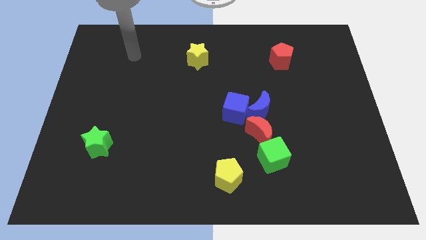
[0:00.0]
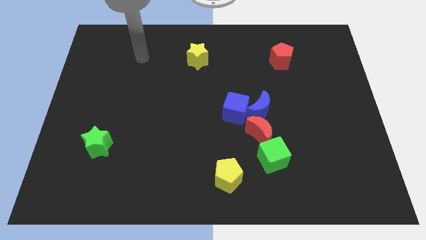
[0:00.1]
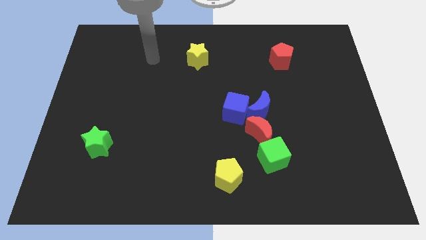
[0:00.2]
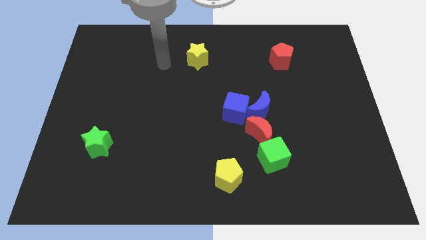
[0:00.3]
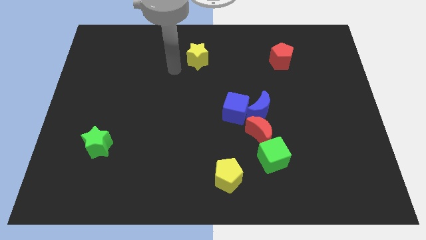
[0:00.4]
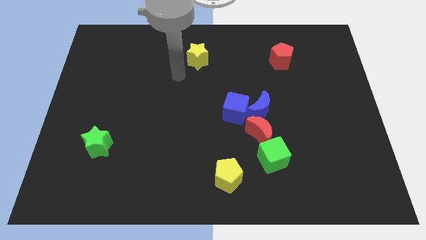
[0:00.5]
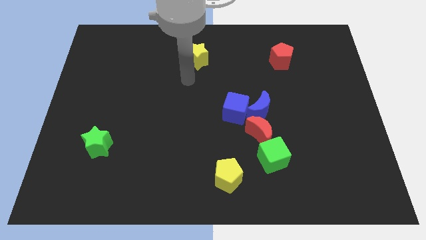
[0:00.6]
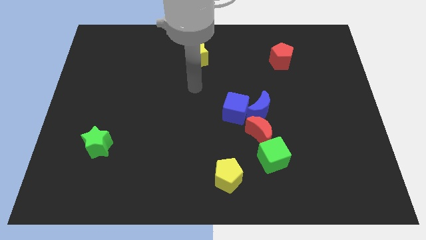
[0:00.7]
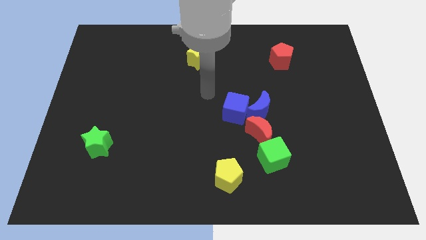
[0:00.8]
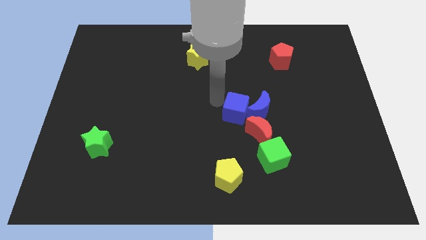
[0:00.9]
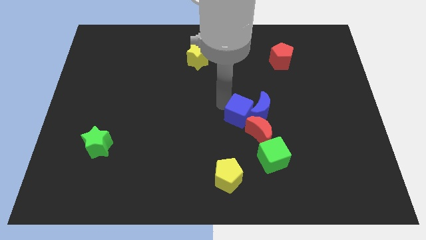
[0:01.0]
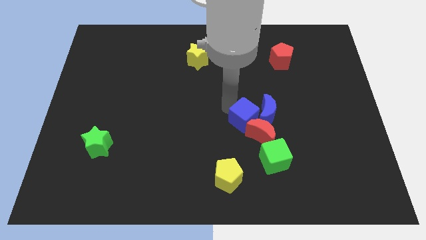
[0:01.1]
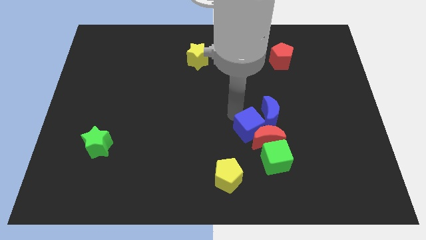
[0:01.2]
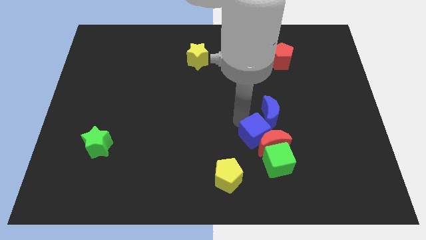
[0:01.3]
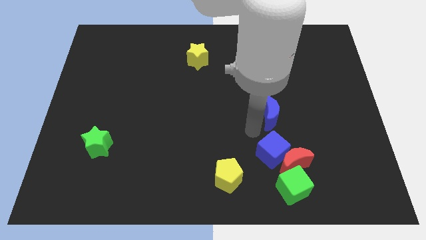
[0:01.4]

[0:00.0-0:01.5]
separate the blue moon from the blue cube and red moon

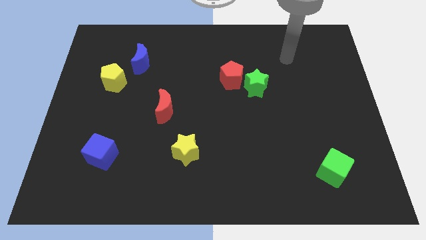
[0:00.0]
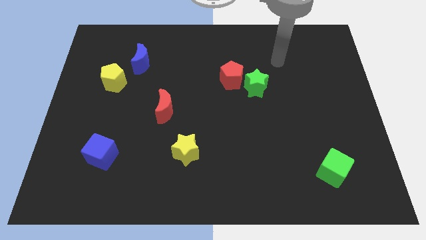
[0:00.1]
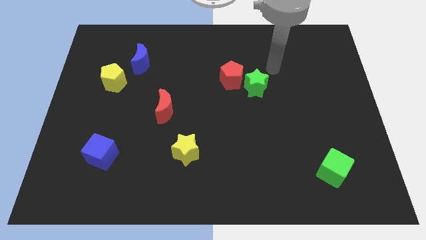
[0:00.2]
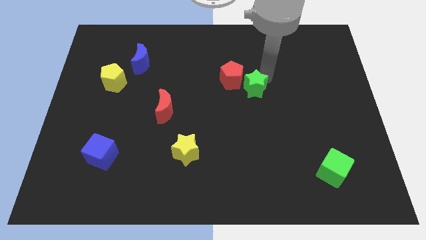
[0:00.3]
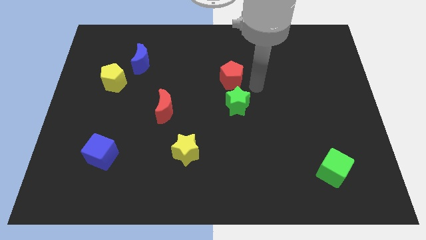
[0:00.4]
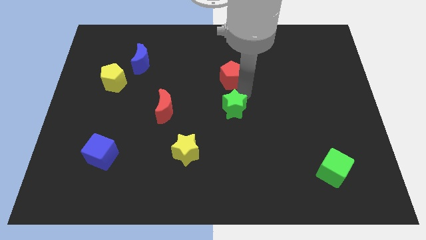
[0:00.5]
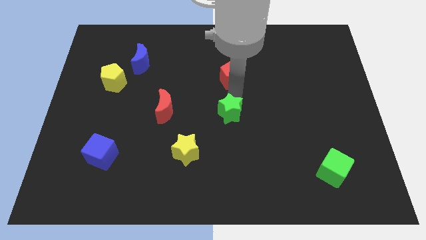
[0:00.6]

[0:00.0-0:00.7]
move the red pentagon away from the green star

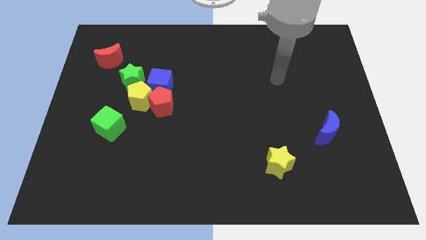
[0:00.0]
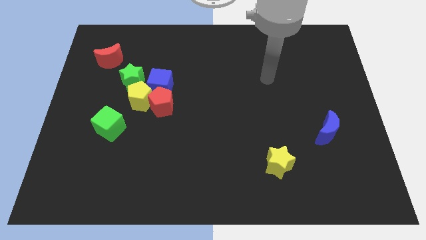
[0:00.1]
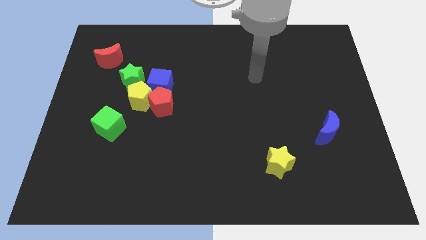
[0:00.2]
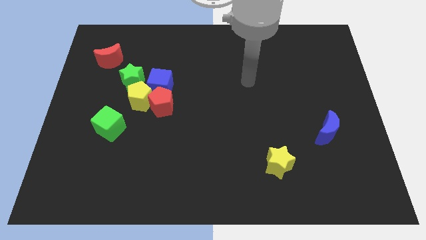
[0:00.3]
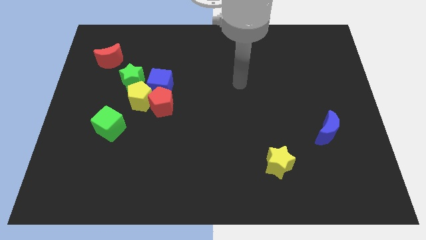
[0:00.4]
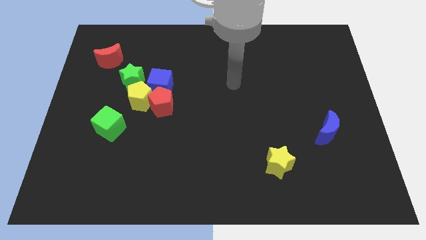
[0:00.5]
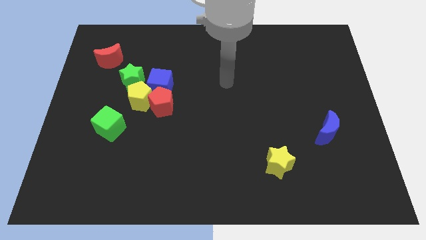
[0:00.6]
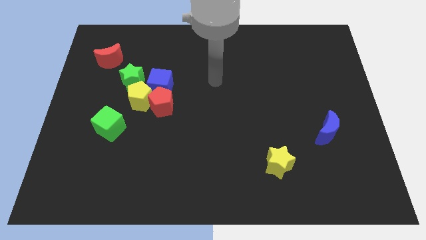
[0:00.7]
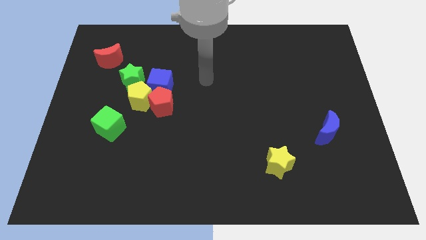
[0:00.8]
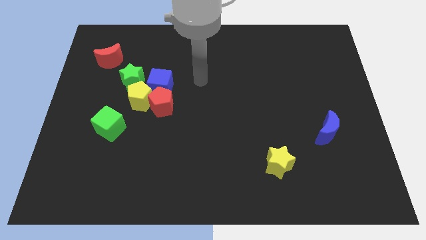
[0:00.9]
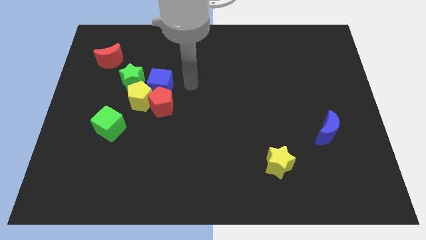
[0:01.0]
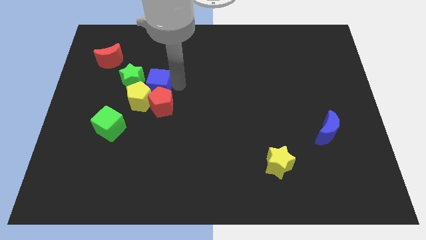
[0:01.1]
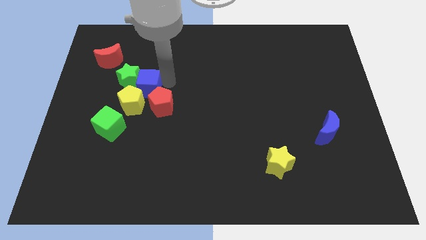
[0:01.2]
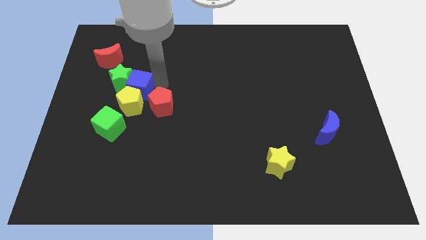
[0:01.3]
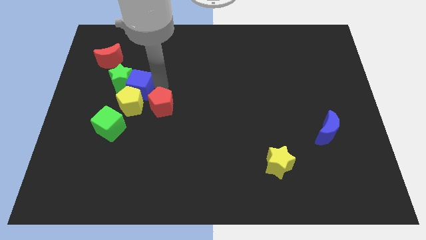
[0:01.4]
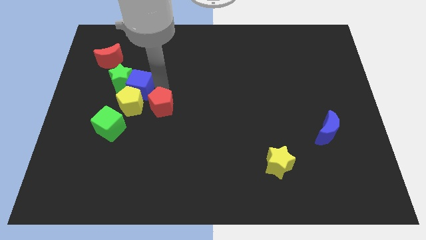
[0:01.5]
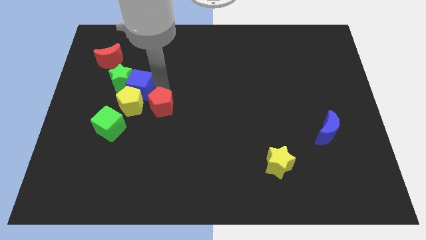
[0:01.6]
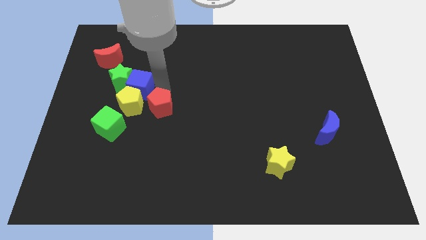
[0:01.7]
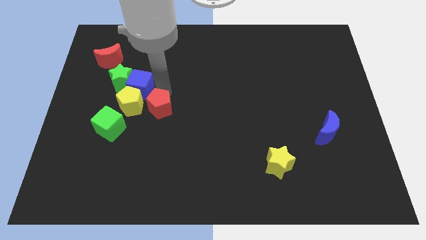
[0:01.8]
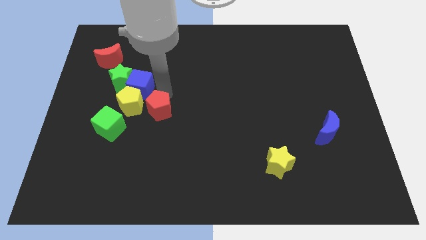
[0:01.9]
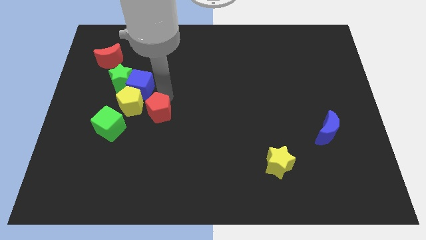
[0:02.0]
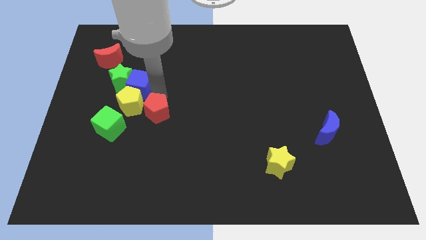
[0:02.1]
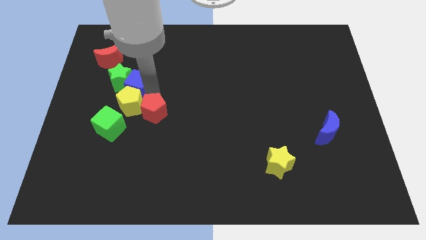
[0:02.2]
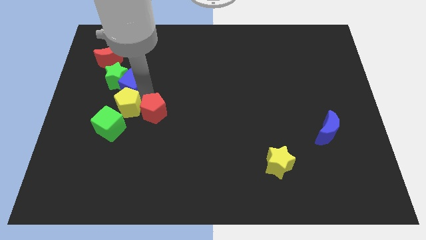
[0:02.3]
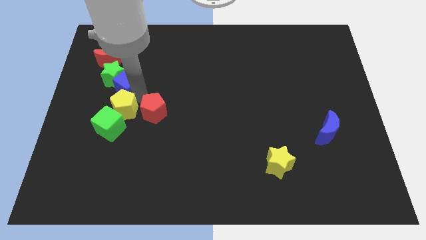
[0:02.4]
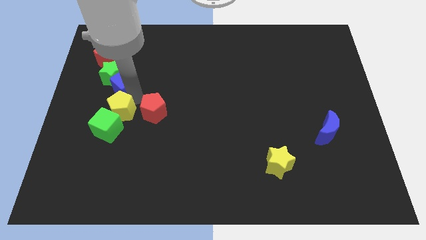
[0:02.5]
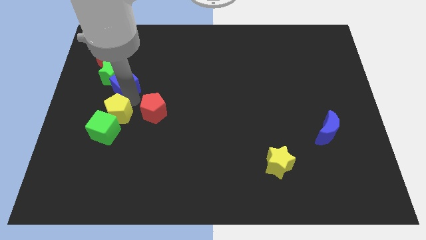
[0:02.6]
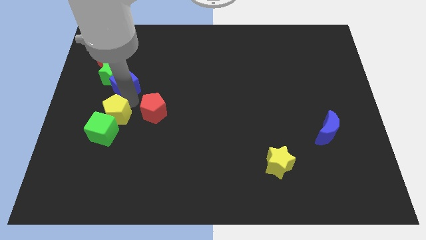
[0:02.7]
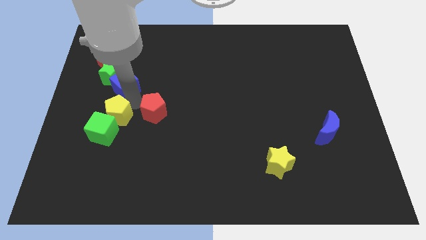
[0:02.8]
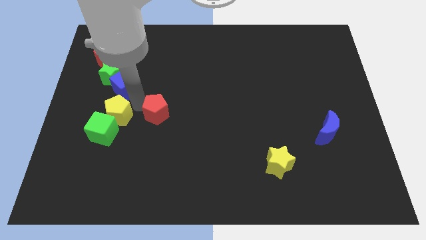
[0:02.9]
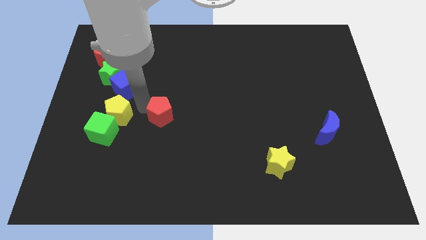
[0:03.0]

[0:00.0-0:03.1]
pull the red pentagon apart from the yellow pentagon and blue cube

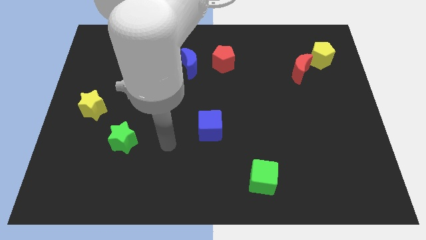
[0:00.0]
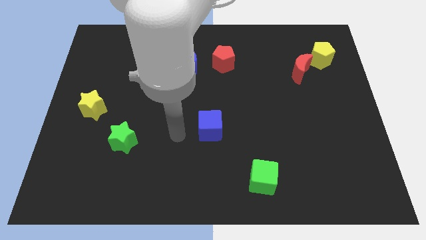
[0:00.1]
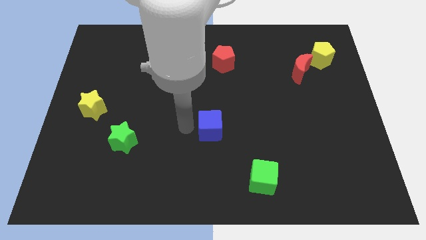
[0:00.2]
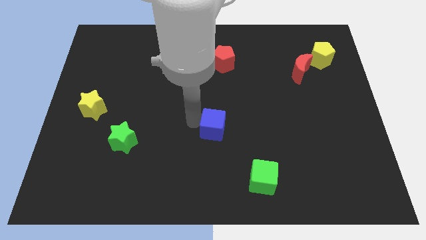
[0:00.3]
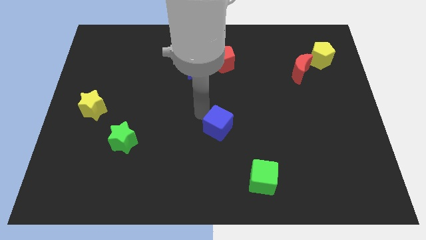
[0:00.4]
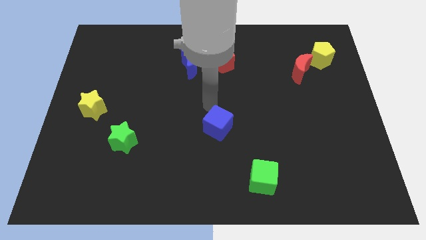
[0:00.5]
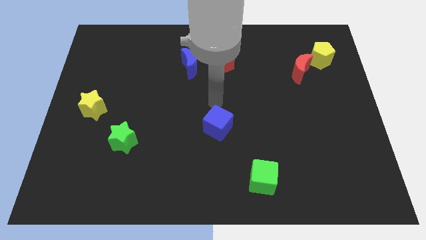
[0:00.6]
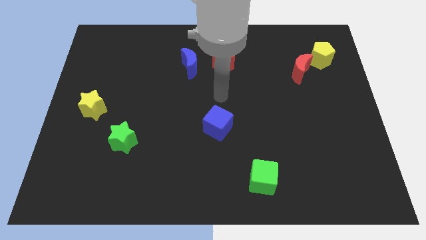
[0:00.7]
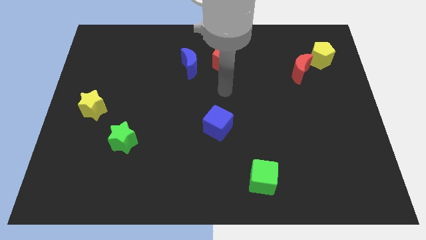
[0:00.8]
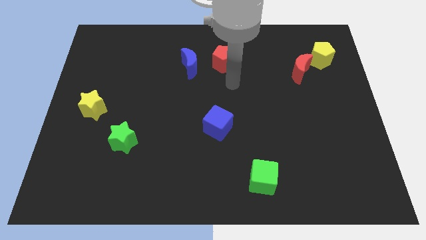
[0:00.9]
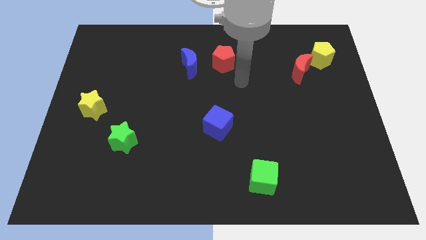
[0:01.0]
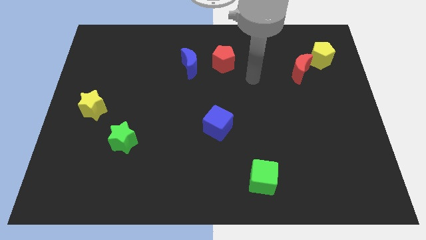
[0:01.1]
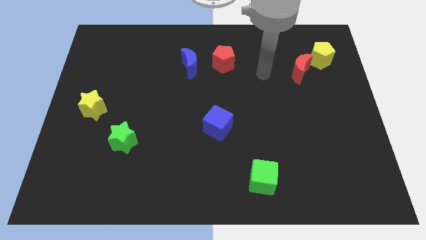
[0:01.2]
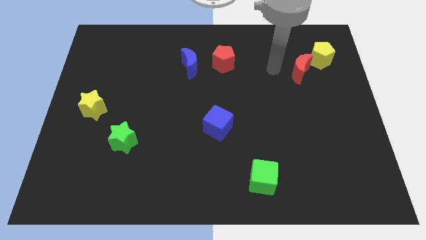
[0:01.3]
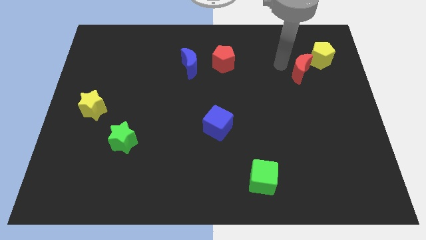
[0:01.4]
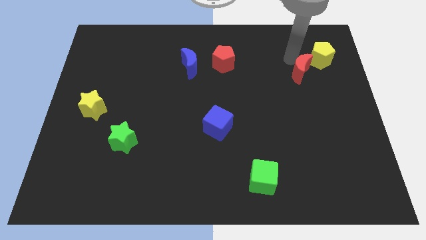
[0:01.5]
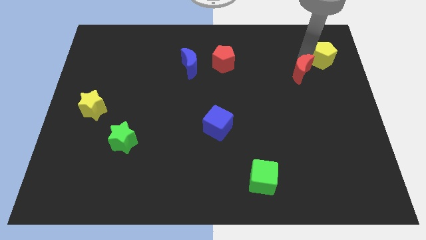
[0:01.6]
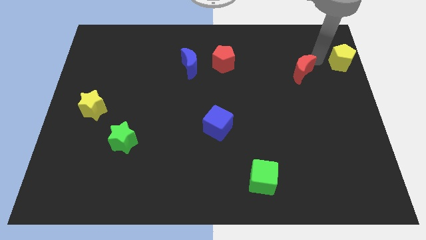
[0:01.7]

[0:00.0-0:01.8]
separate the red moon from the yellow pentagon

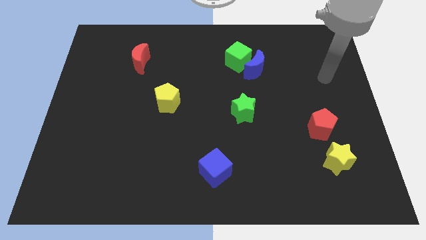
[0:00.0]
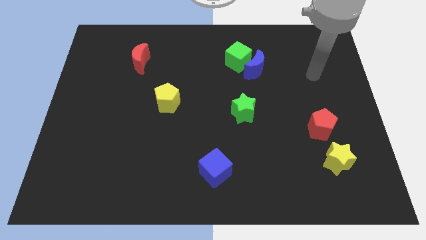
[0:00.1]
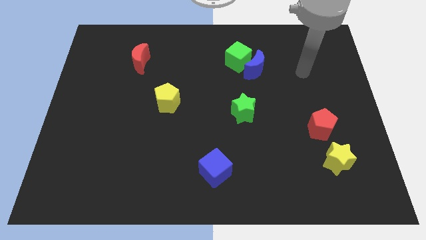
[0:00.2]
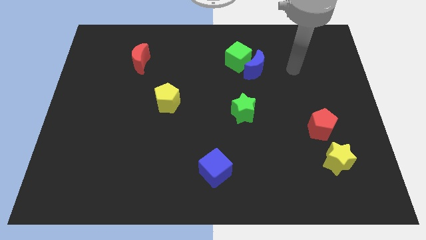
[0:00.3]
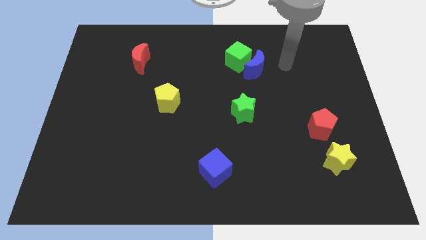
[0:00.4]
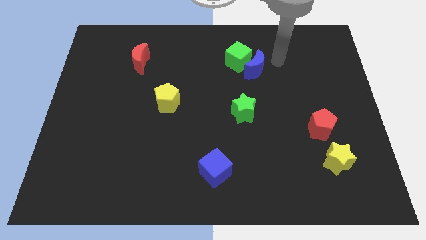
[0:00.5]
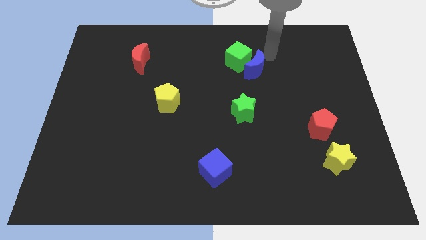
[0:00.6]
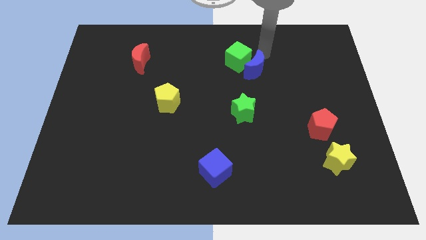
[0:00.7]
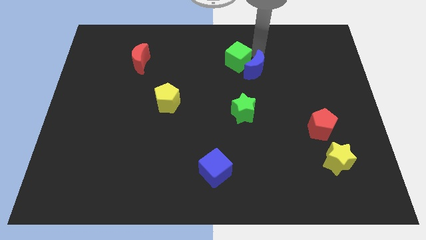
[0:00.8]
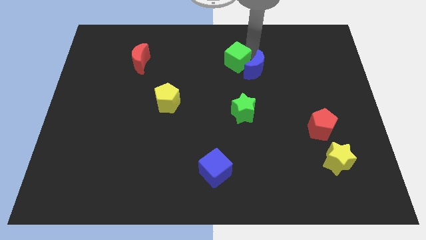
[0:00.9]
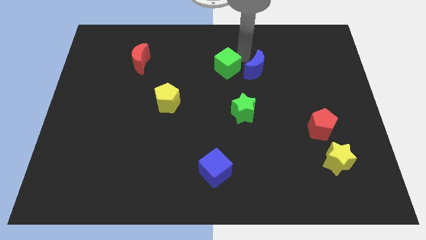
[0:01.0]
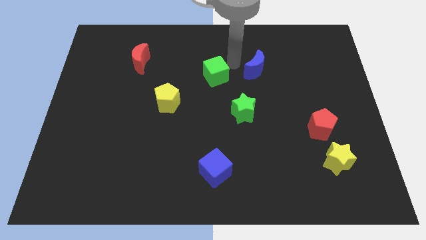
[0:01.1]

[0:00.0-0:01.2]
separate the blue moon from the green cube

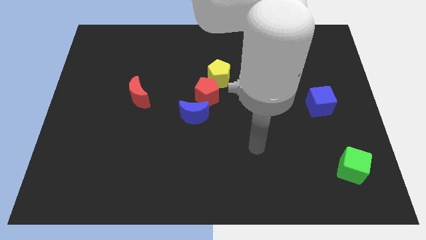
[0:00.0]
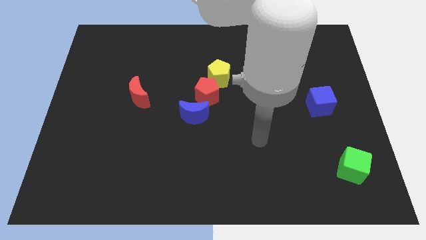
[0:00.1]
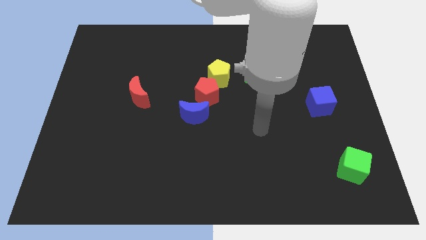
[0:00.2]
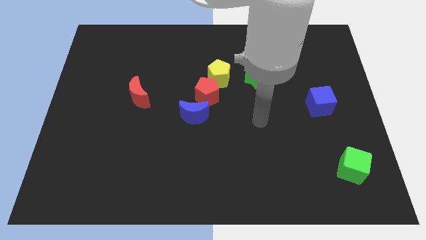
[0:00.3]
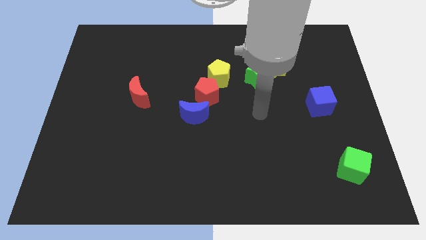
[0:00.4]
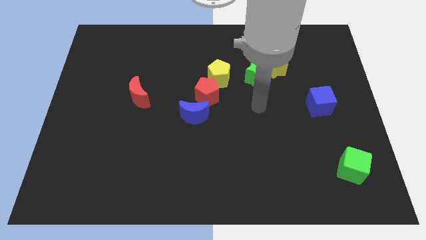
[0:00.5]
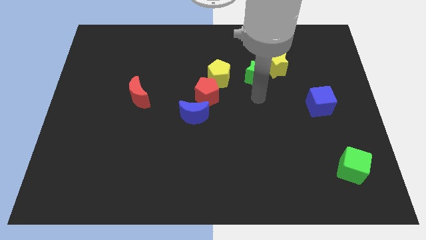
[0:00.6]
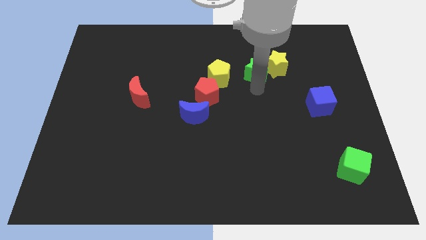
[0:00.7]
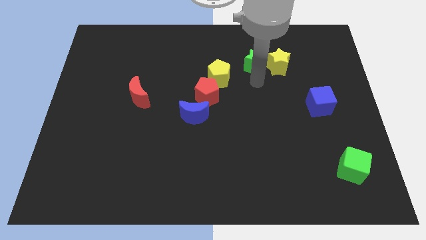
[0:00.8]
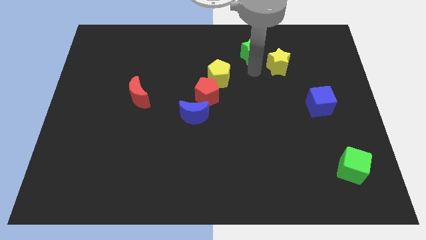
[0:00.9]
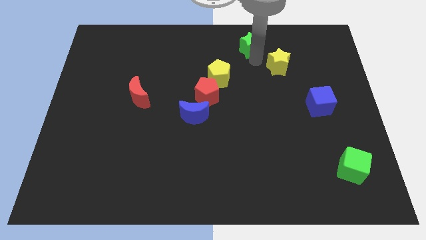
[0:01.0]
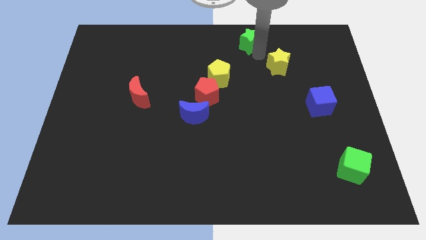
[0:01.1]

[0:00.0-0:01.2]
move the yellow star away from the green star
